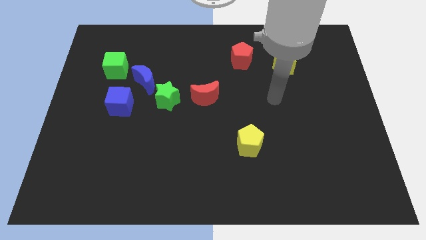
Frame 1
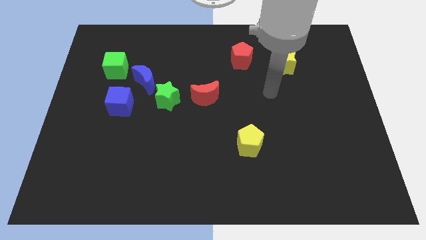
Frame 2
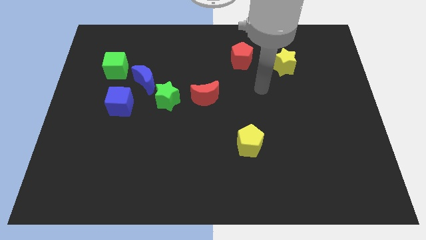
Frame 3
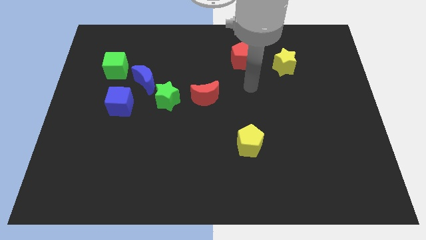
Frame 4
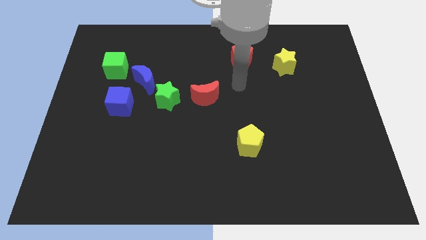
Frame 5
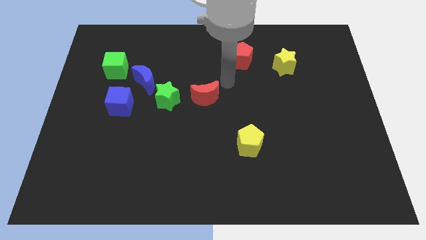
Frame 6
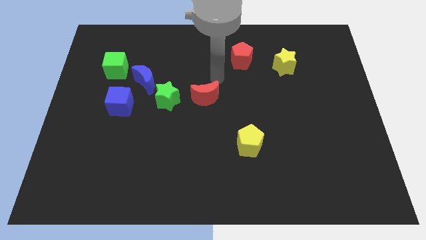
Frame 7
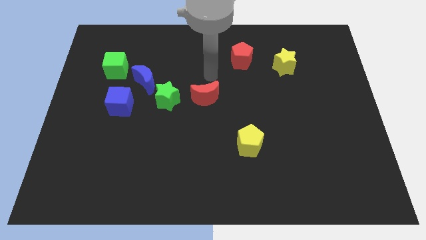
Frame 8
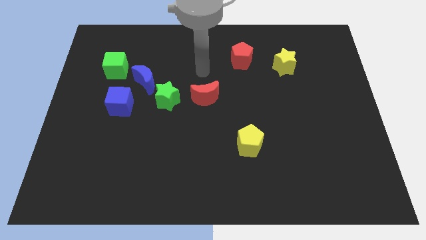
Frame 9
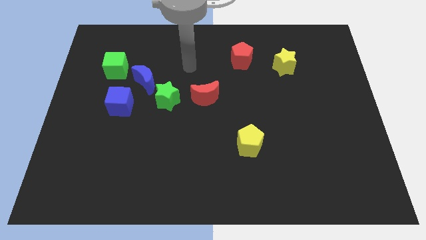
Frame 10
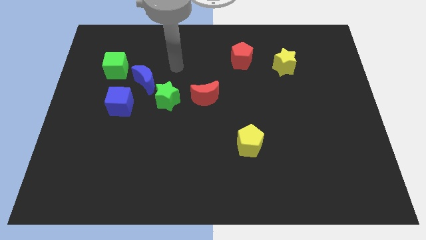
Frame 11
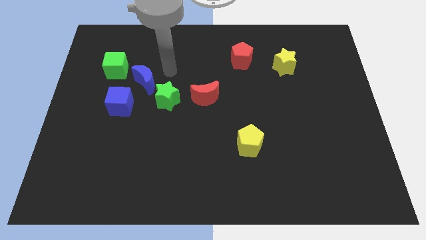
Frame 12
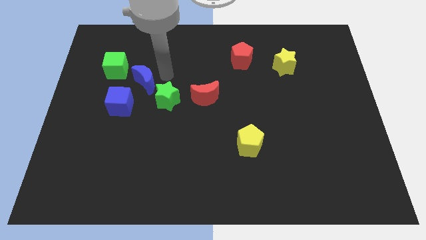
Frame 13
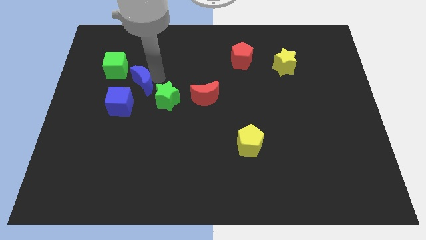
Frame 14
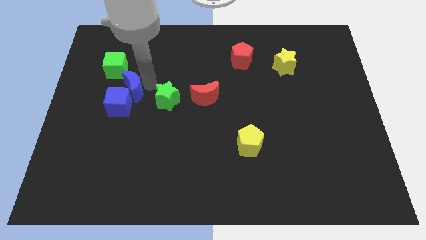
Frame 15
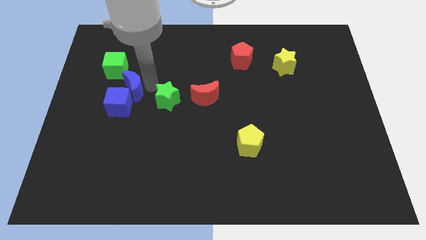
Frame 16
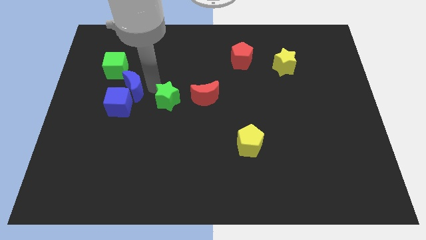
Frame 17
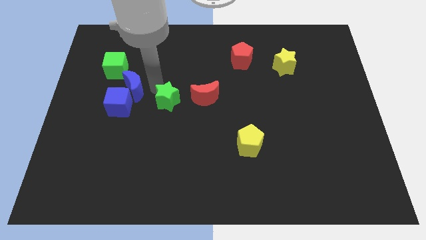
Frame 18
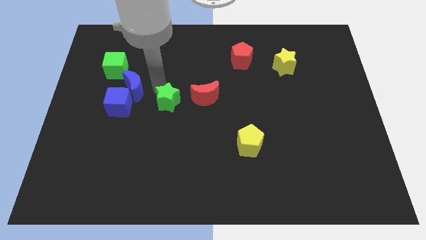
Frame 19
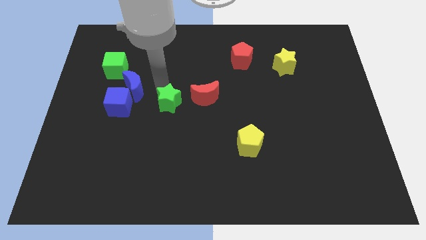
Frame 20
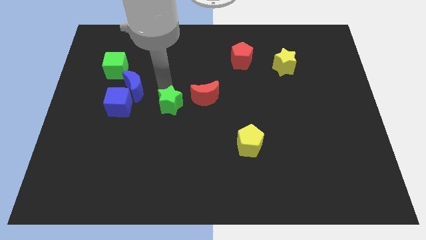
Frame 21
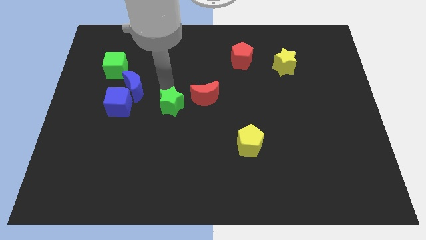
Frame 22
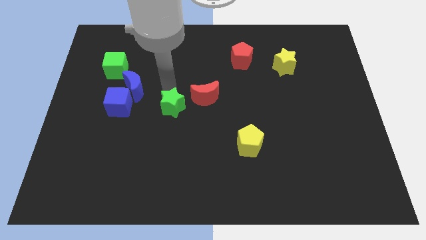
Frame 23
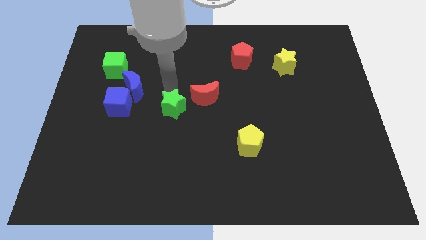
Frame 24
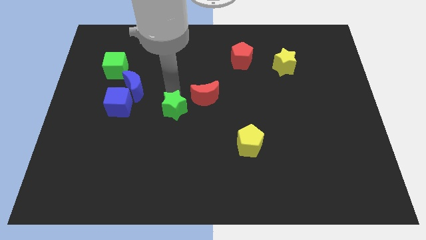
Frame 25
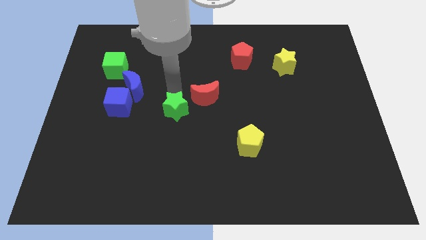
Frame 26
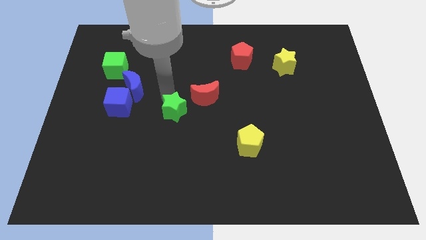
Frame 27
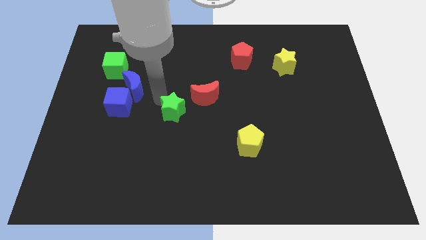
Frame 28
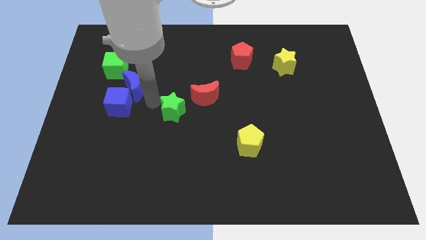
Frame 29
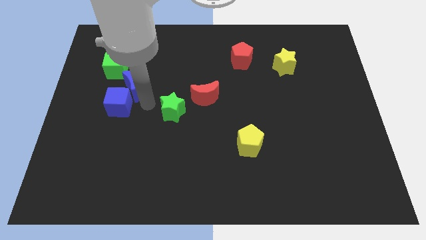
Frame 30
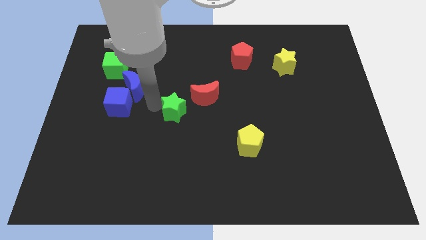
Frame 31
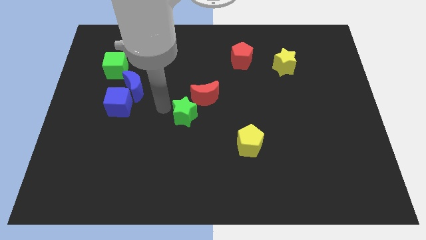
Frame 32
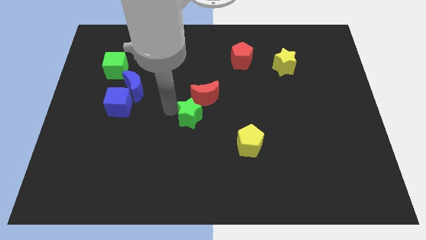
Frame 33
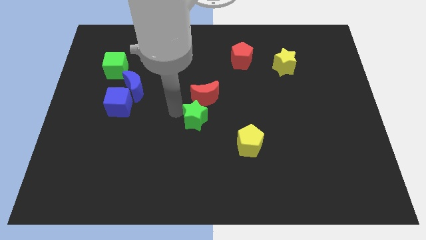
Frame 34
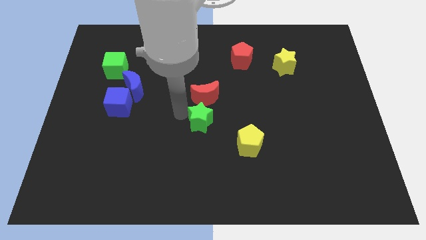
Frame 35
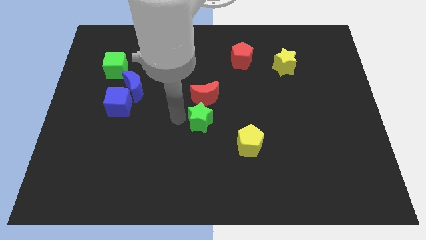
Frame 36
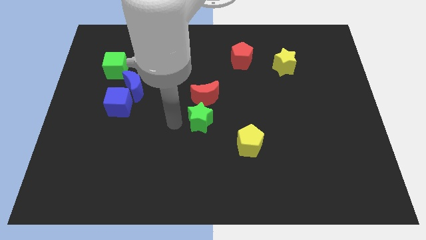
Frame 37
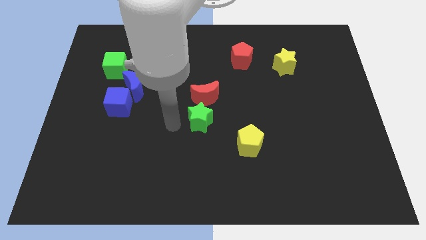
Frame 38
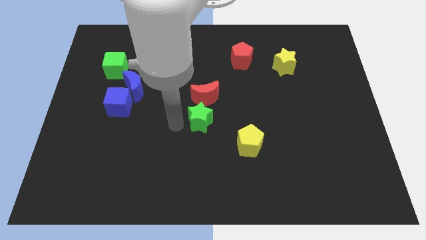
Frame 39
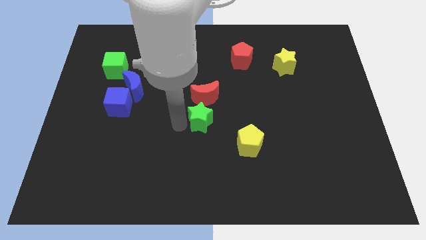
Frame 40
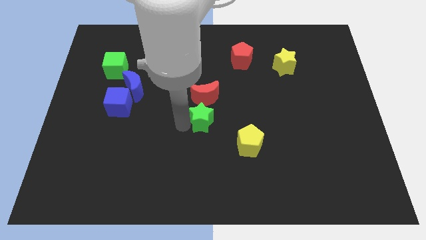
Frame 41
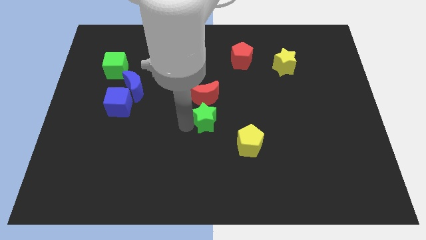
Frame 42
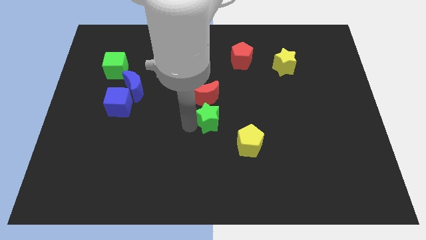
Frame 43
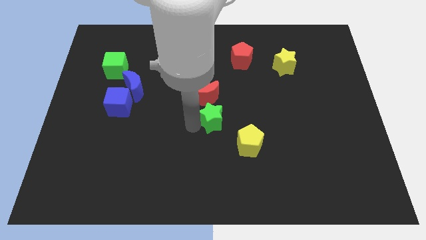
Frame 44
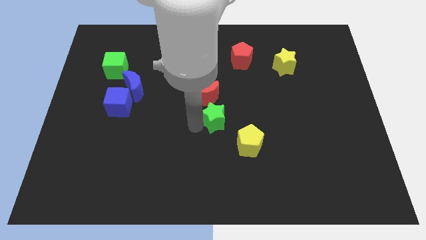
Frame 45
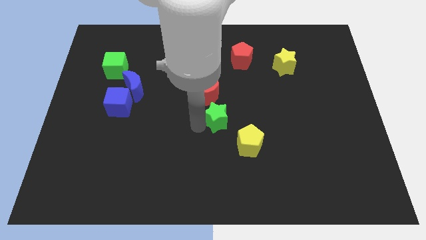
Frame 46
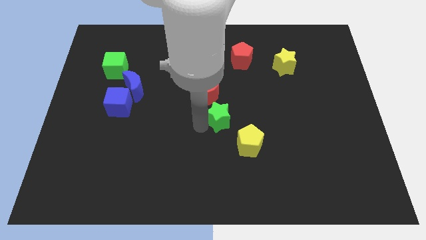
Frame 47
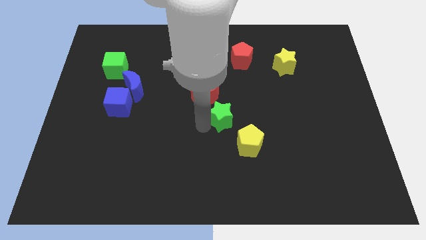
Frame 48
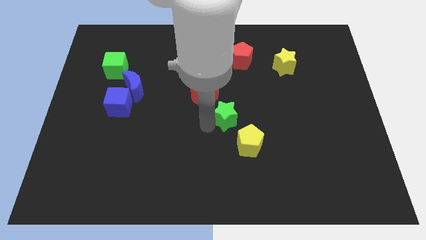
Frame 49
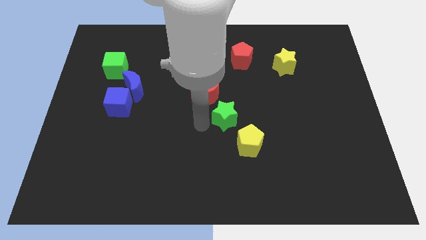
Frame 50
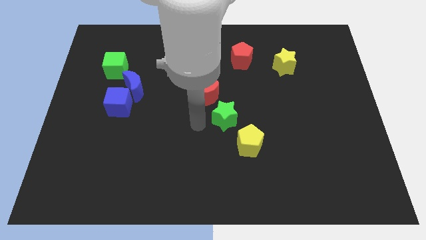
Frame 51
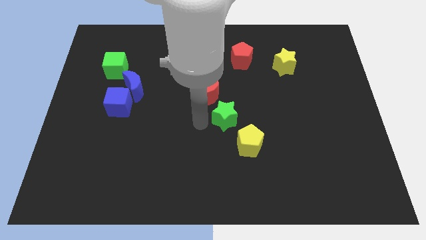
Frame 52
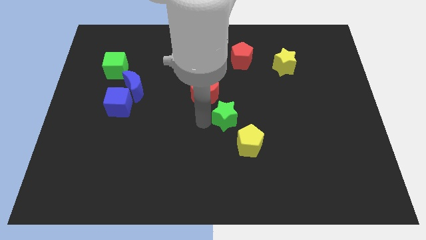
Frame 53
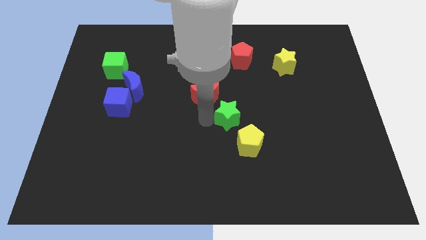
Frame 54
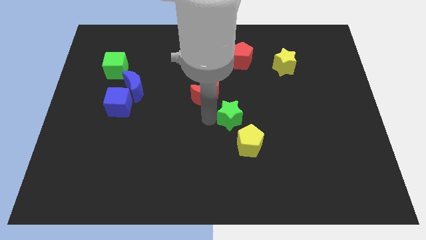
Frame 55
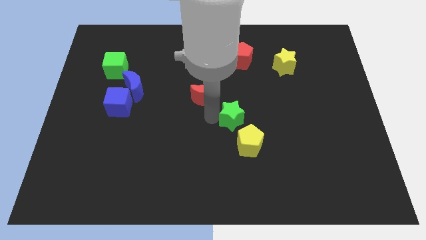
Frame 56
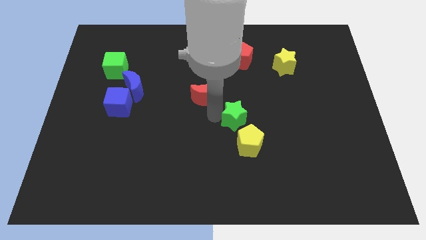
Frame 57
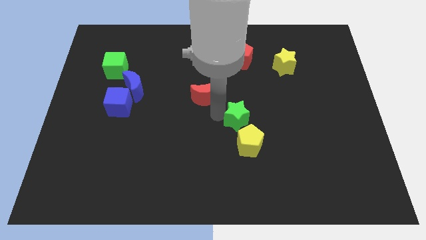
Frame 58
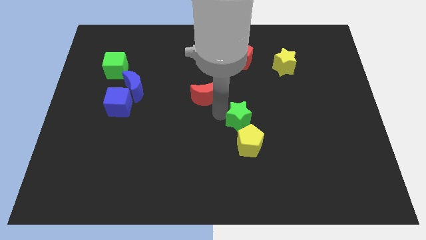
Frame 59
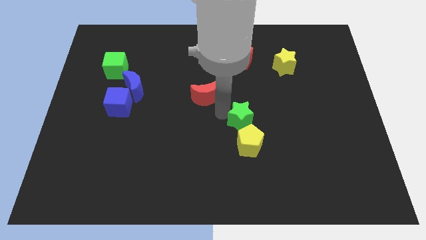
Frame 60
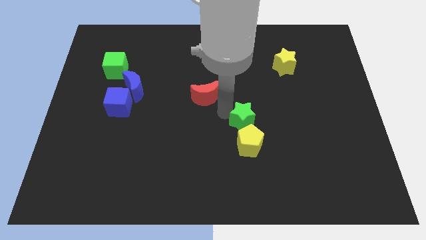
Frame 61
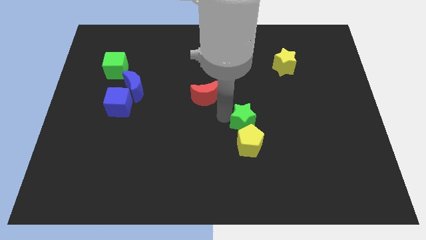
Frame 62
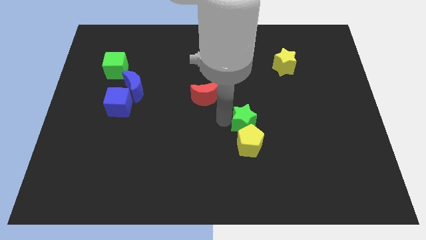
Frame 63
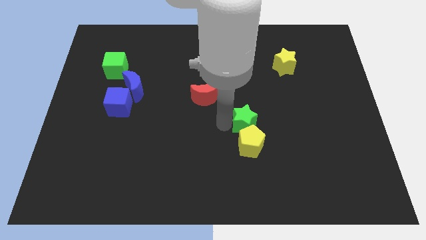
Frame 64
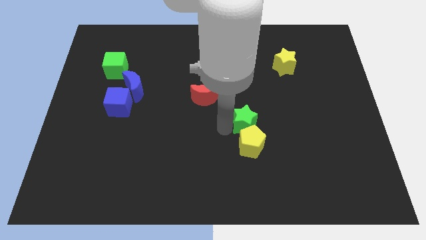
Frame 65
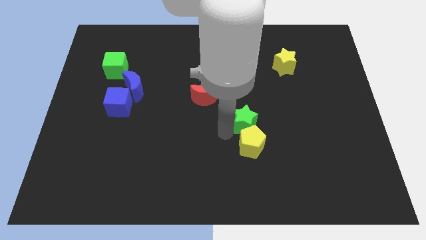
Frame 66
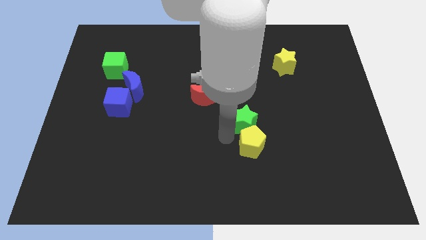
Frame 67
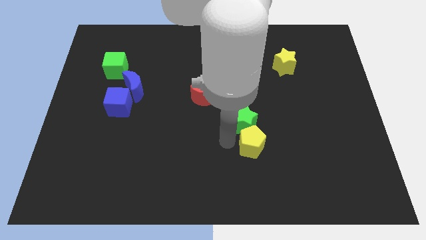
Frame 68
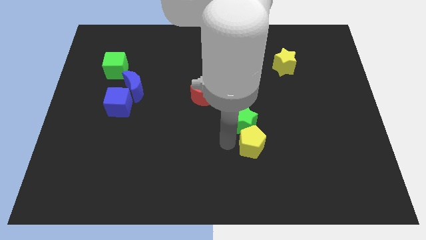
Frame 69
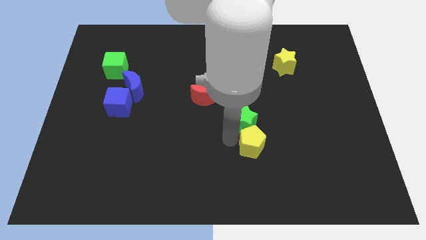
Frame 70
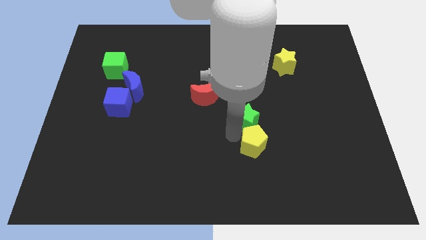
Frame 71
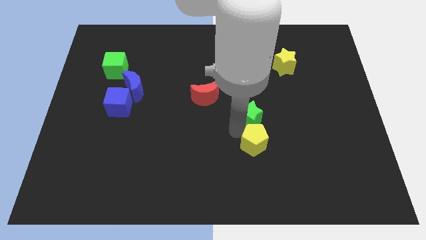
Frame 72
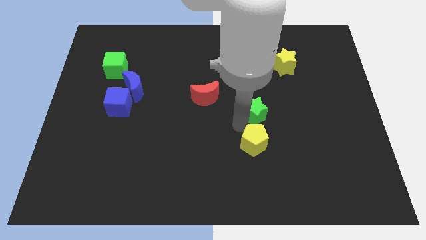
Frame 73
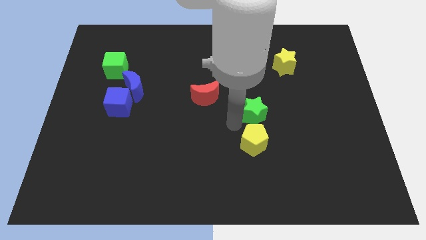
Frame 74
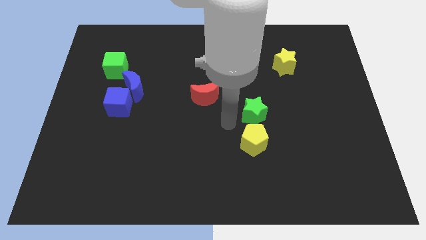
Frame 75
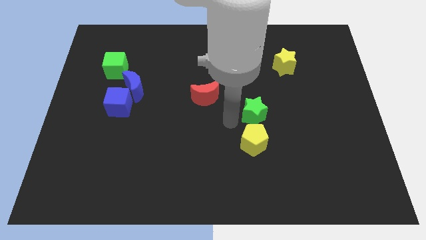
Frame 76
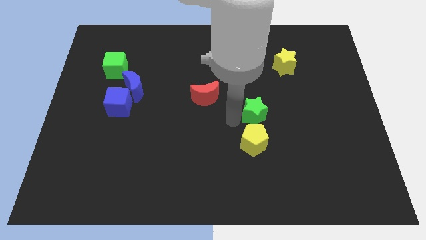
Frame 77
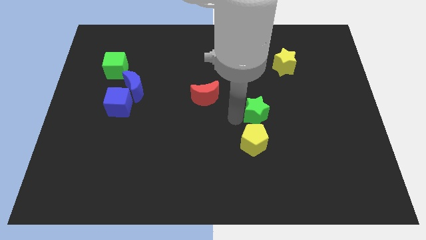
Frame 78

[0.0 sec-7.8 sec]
move the green star to the right

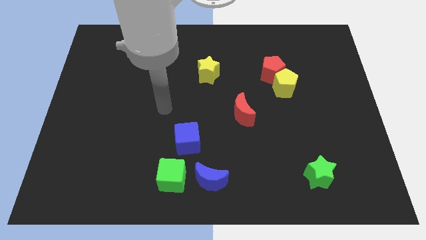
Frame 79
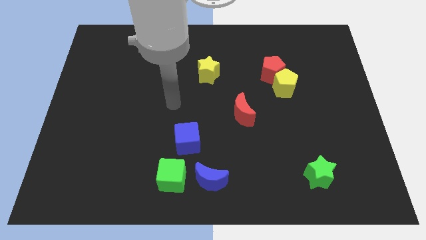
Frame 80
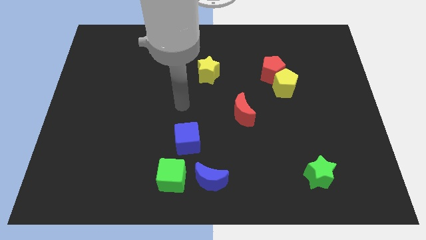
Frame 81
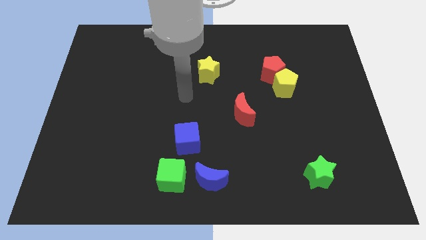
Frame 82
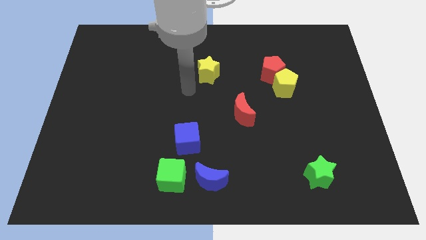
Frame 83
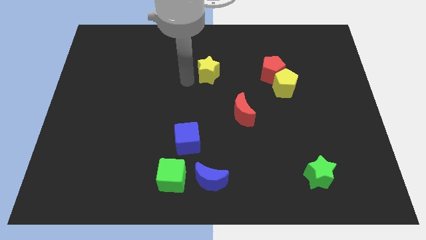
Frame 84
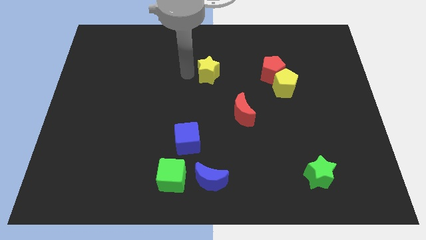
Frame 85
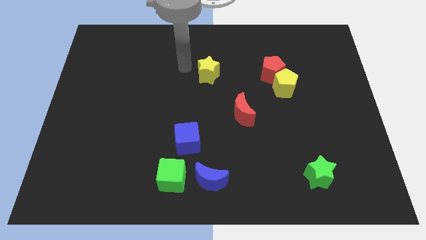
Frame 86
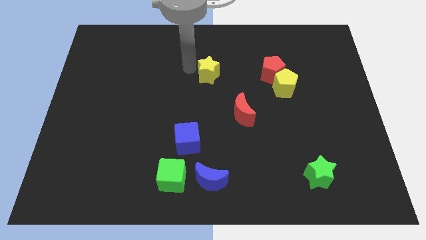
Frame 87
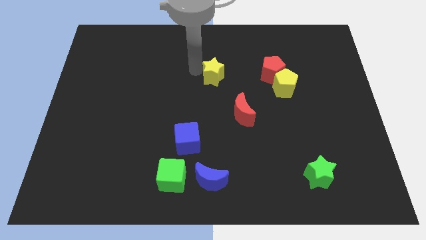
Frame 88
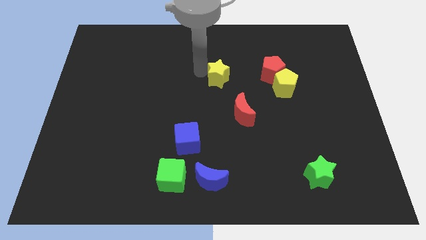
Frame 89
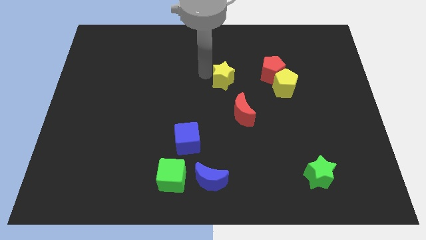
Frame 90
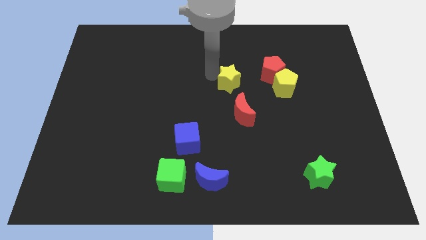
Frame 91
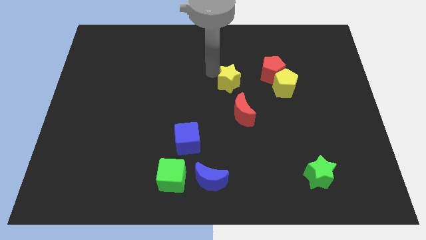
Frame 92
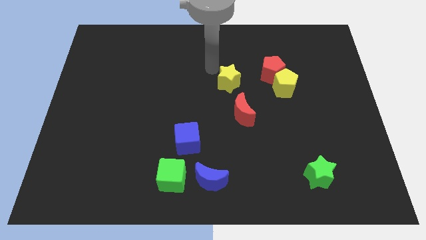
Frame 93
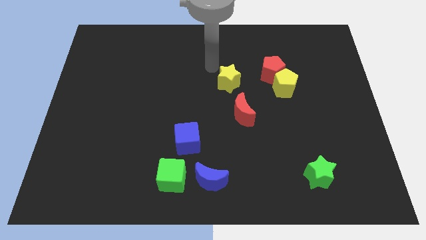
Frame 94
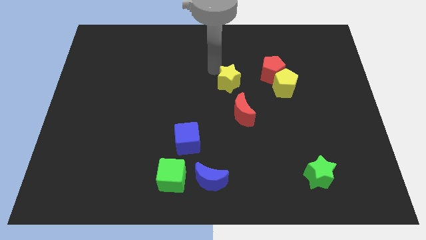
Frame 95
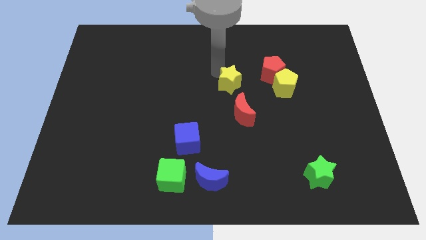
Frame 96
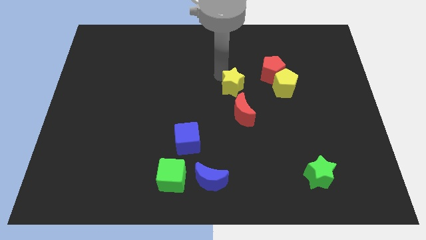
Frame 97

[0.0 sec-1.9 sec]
slightly slide the yellow star diagonally down and to the right
